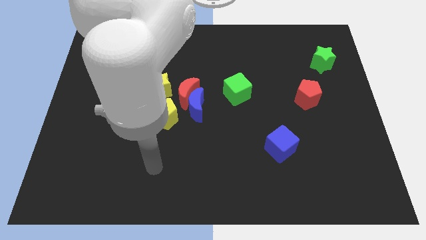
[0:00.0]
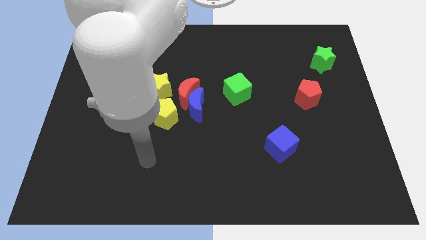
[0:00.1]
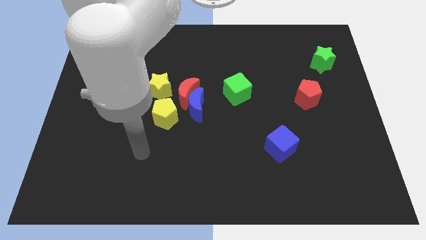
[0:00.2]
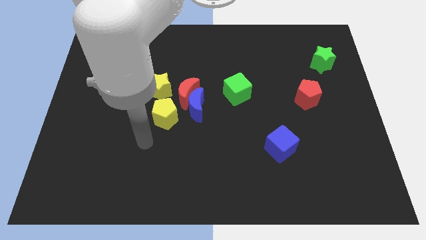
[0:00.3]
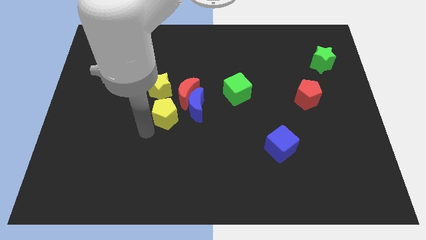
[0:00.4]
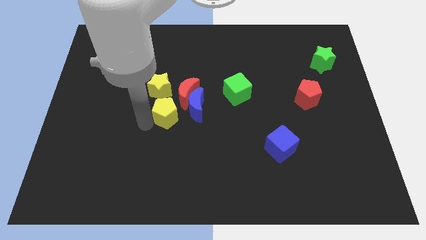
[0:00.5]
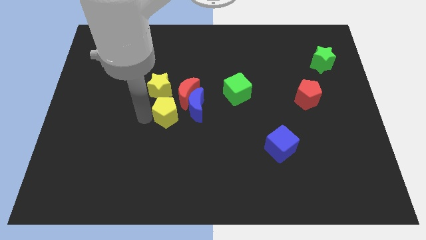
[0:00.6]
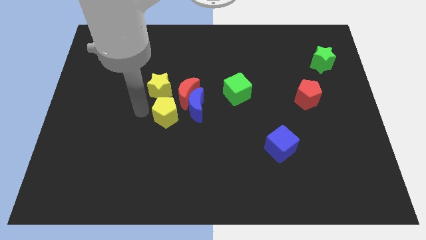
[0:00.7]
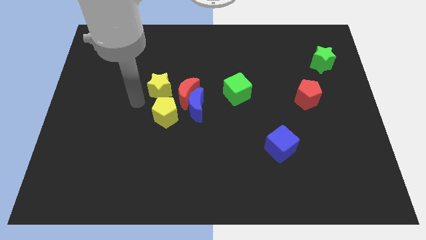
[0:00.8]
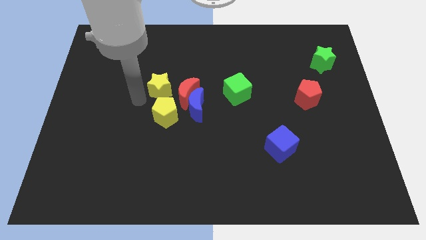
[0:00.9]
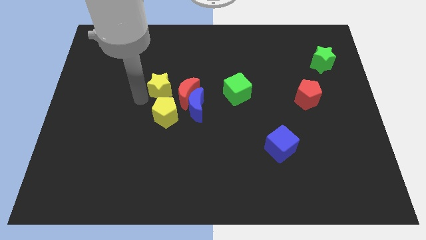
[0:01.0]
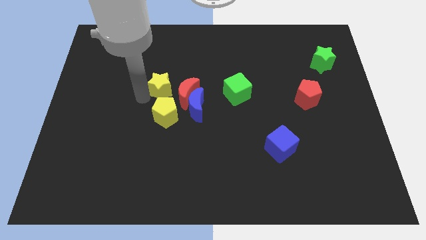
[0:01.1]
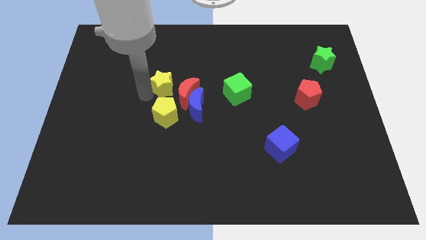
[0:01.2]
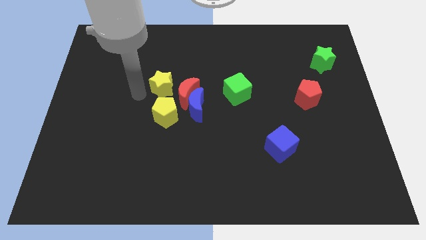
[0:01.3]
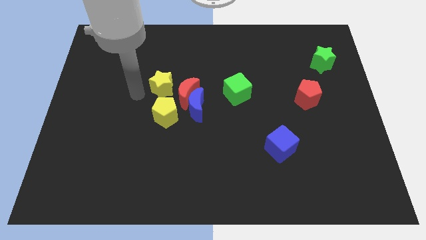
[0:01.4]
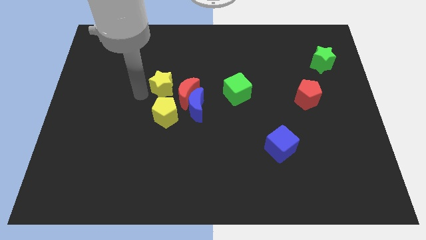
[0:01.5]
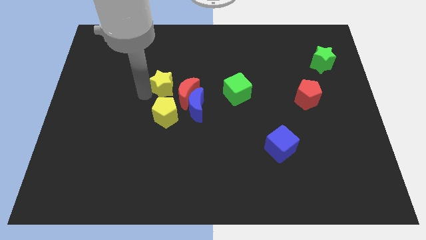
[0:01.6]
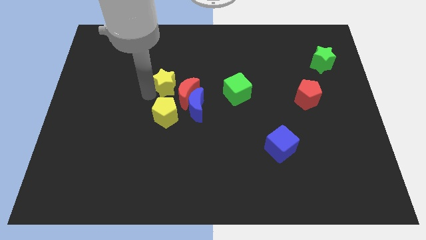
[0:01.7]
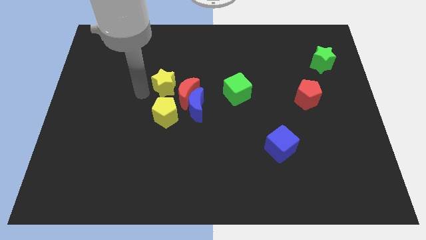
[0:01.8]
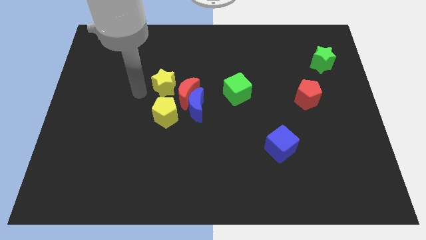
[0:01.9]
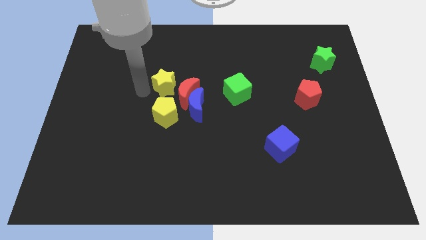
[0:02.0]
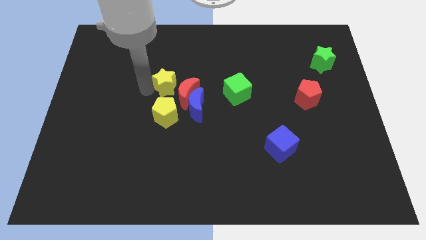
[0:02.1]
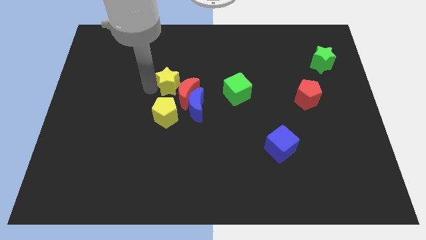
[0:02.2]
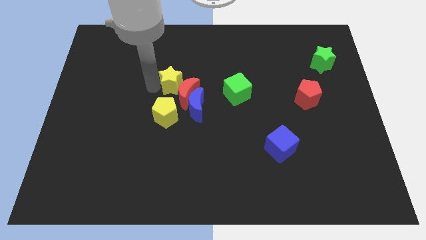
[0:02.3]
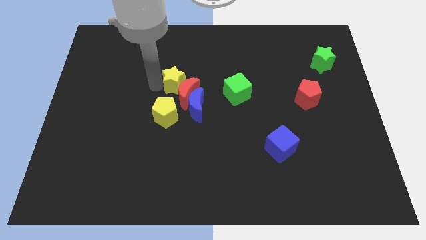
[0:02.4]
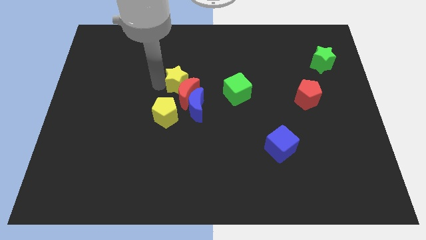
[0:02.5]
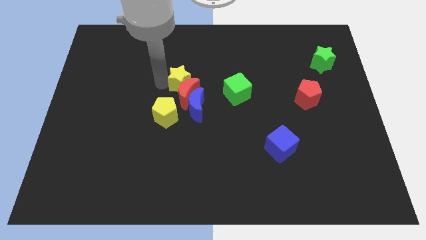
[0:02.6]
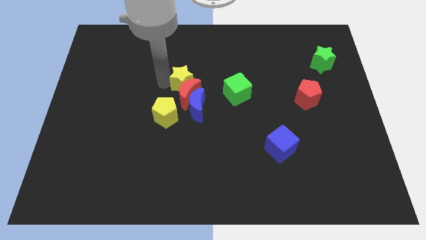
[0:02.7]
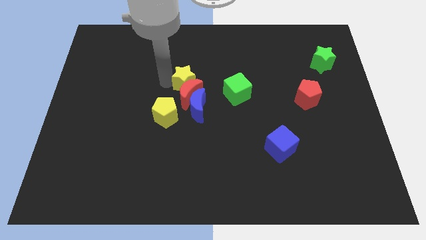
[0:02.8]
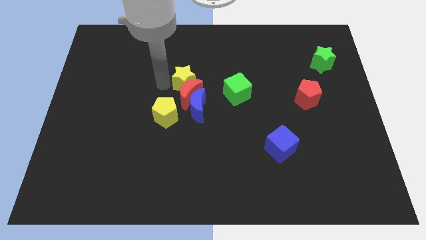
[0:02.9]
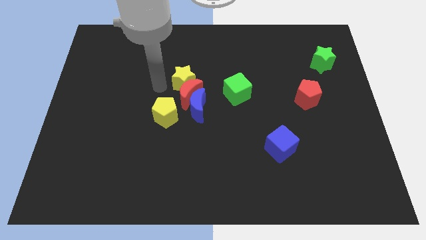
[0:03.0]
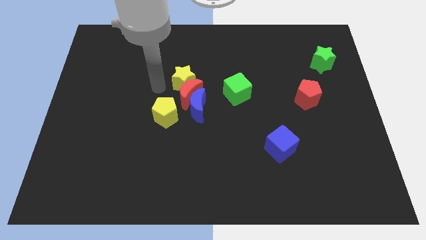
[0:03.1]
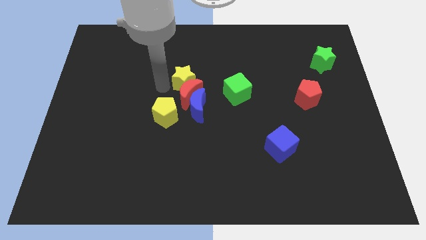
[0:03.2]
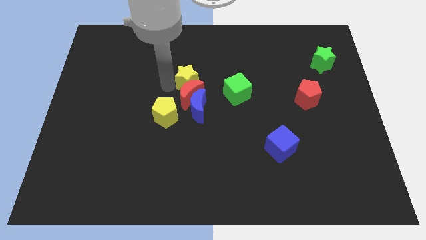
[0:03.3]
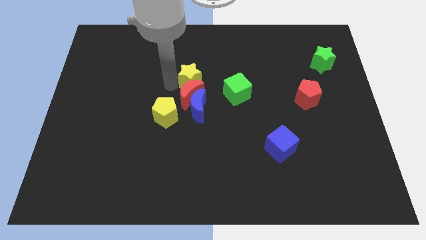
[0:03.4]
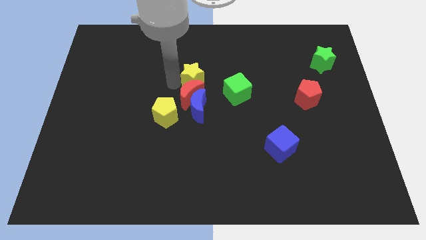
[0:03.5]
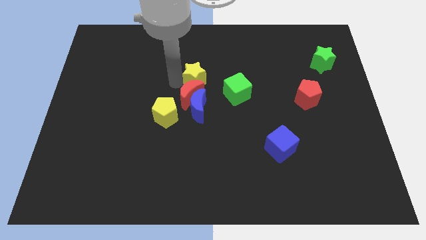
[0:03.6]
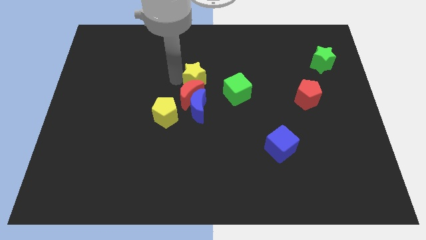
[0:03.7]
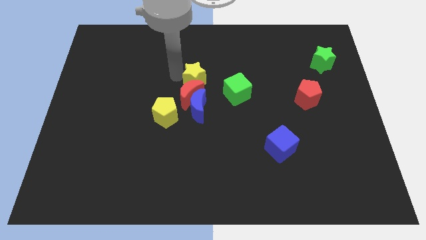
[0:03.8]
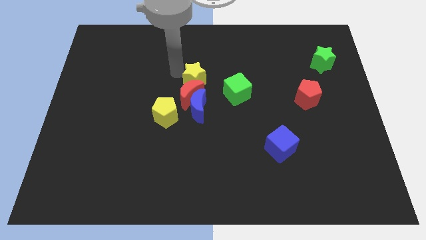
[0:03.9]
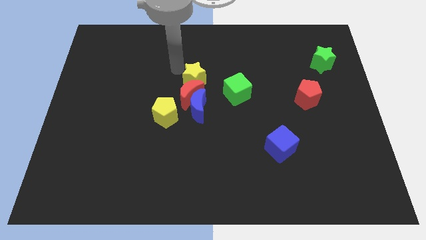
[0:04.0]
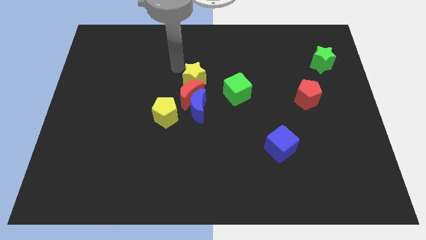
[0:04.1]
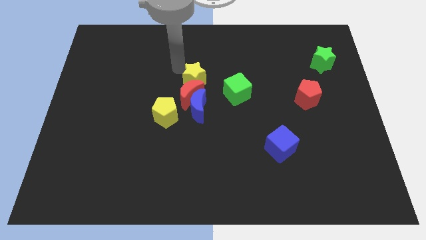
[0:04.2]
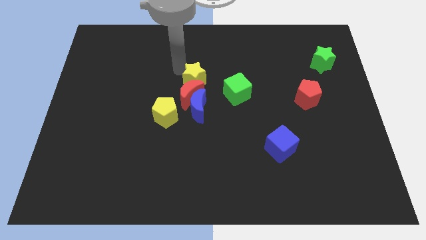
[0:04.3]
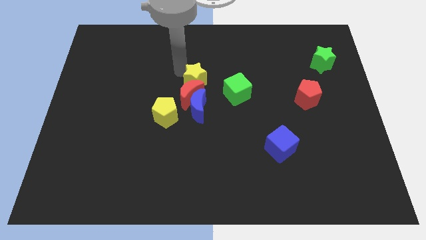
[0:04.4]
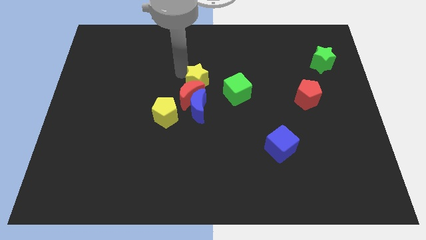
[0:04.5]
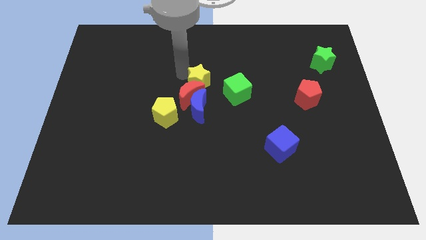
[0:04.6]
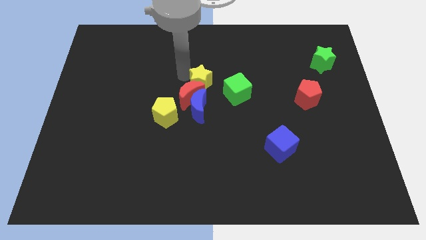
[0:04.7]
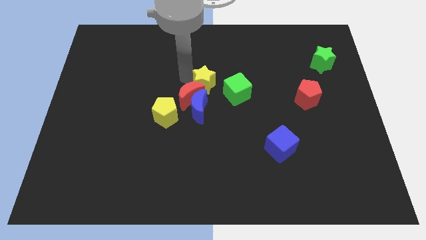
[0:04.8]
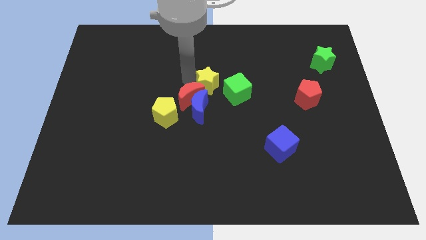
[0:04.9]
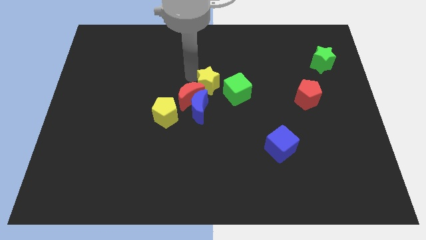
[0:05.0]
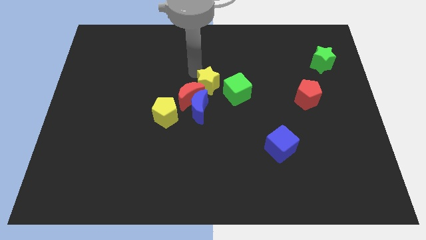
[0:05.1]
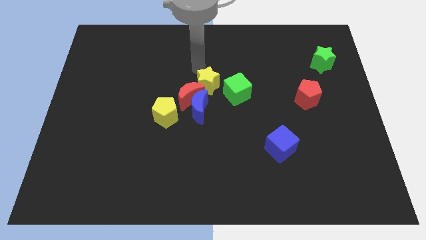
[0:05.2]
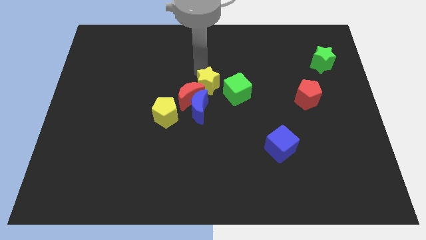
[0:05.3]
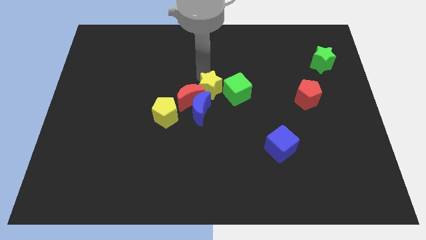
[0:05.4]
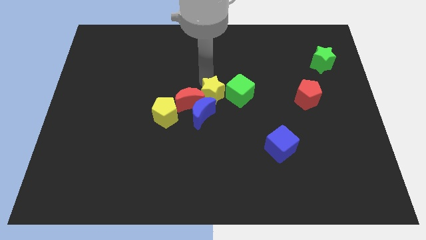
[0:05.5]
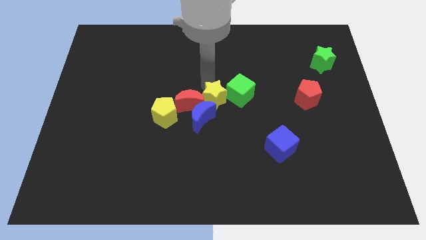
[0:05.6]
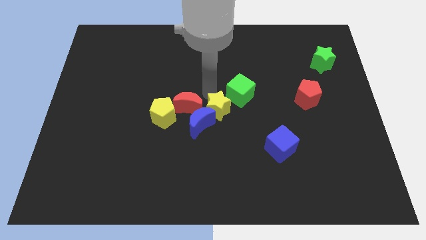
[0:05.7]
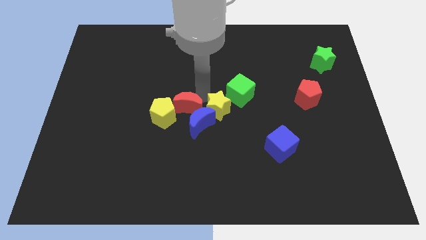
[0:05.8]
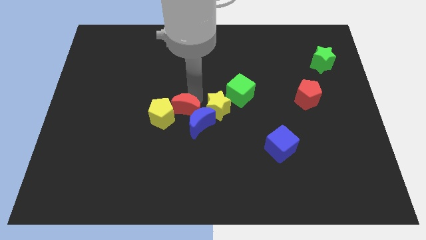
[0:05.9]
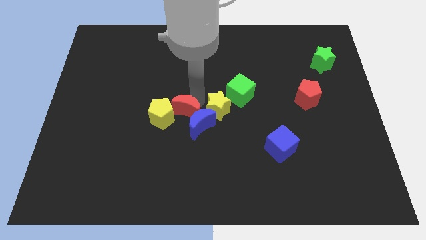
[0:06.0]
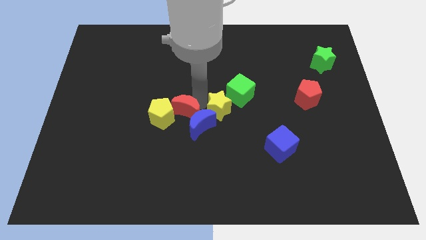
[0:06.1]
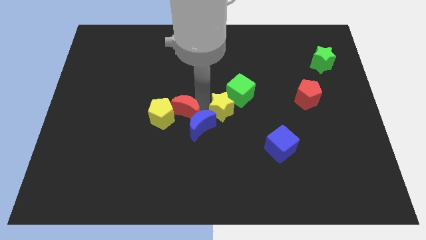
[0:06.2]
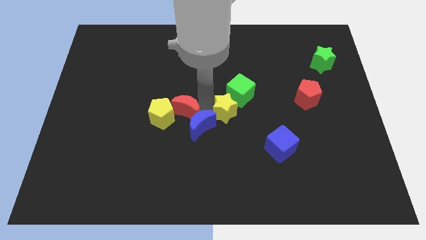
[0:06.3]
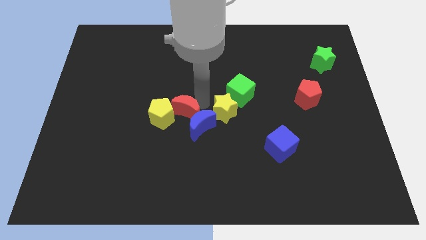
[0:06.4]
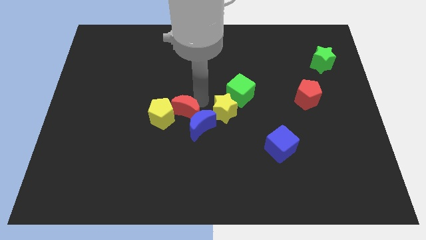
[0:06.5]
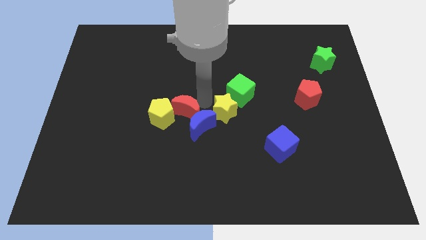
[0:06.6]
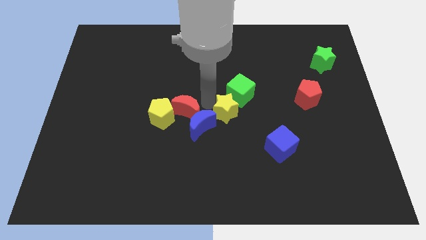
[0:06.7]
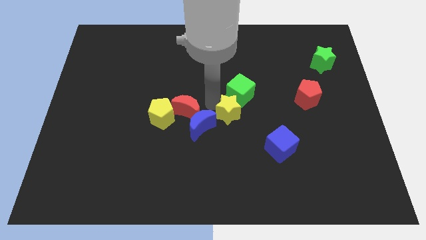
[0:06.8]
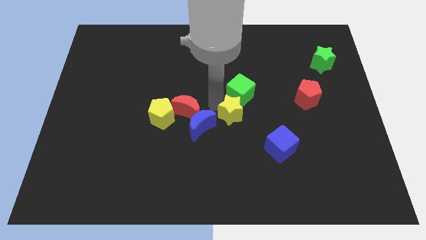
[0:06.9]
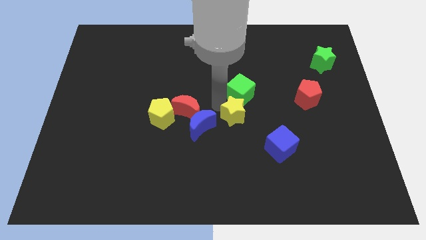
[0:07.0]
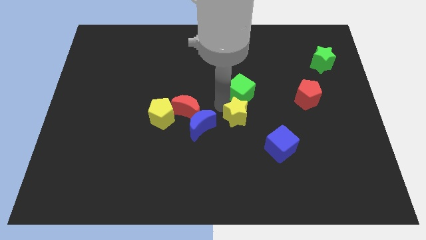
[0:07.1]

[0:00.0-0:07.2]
push the yellow star to the top left of the blue cube
